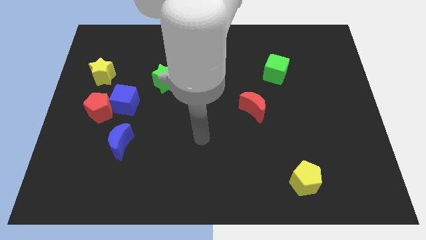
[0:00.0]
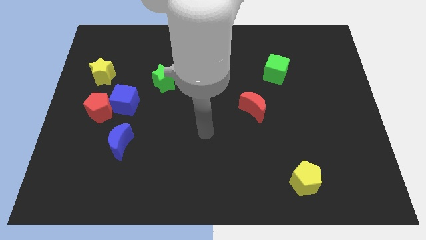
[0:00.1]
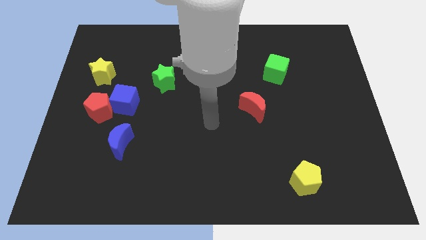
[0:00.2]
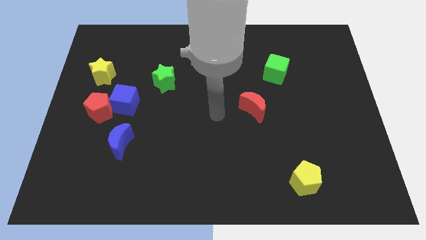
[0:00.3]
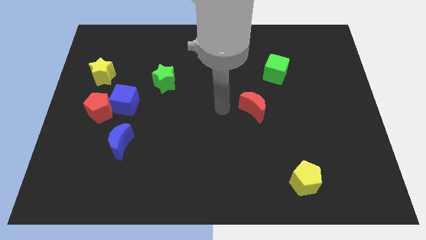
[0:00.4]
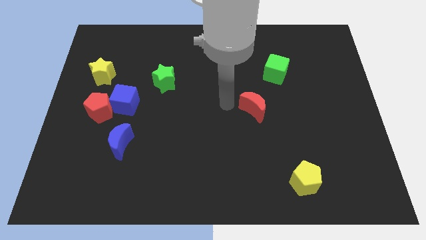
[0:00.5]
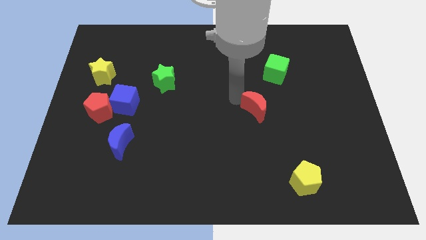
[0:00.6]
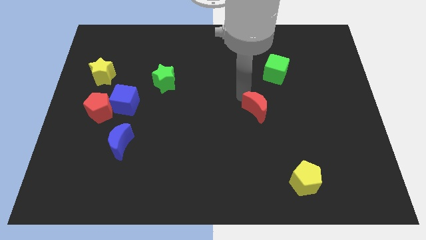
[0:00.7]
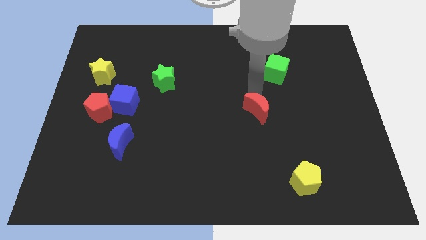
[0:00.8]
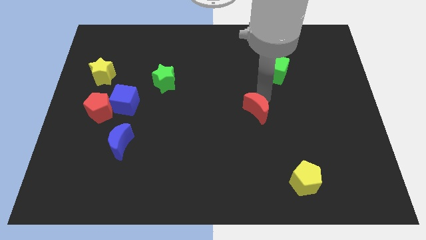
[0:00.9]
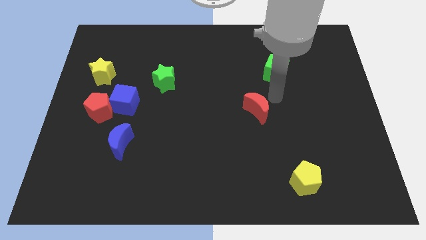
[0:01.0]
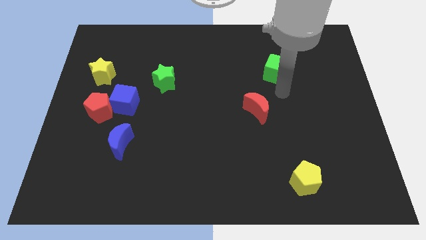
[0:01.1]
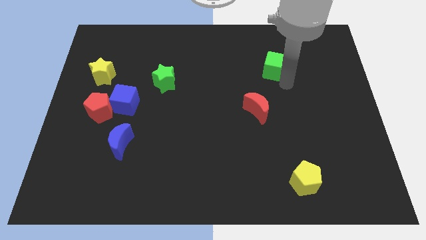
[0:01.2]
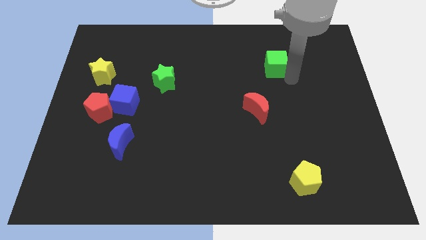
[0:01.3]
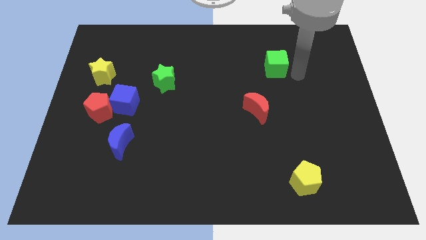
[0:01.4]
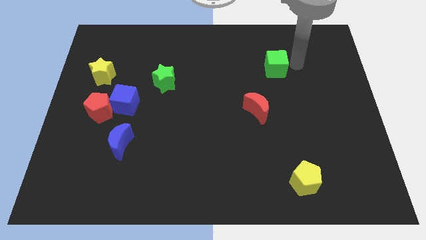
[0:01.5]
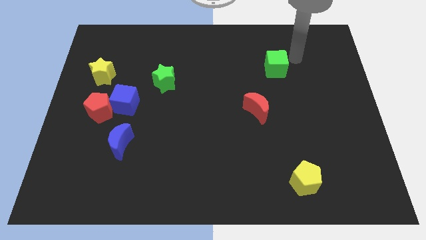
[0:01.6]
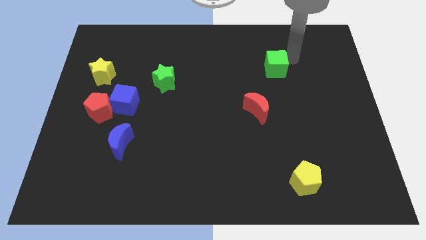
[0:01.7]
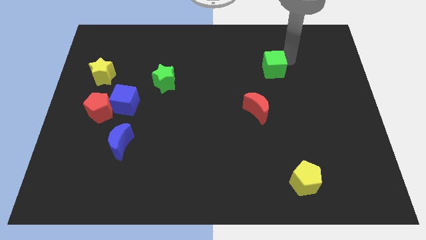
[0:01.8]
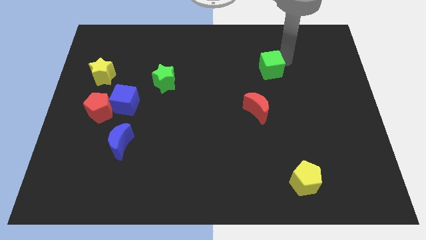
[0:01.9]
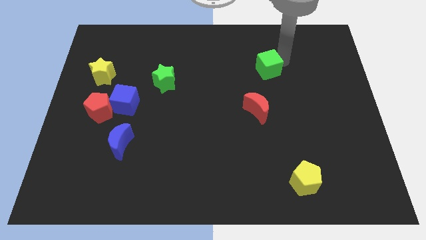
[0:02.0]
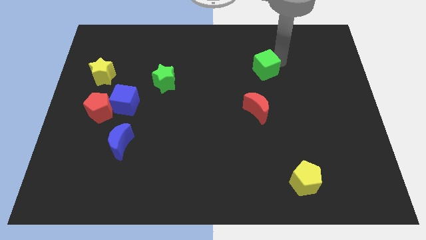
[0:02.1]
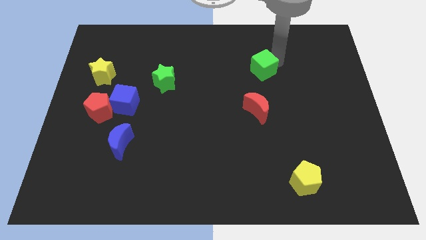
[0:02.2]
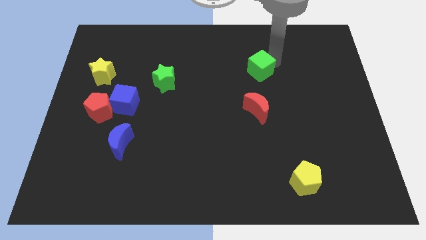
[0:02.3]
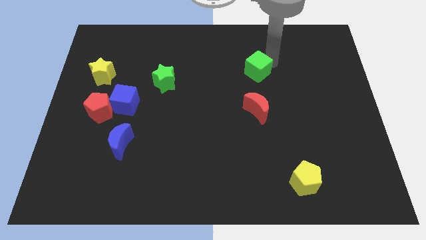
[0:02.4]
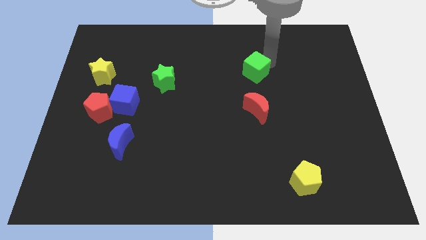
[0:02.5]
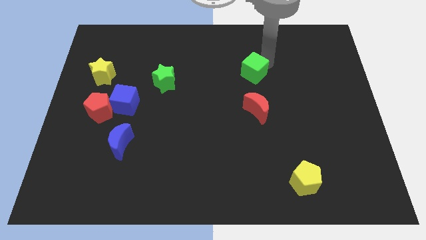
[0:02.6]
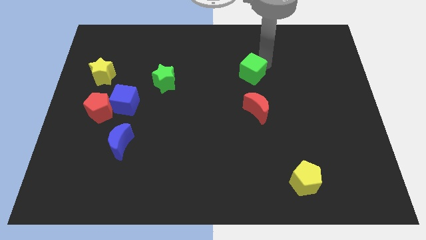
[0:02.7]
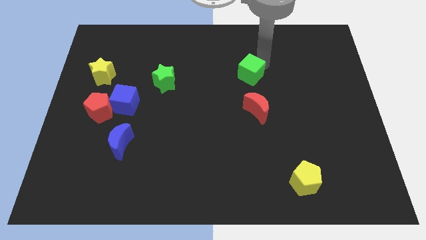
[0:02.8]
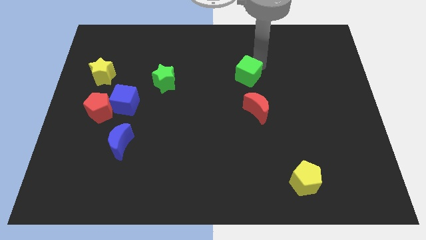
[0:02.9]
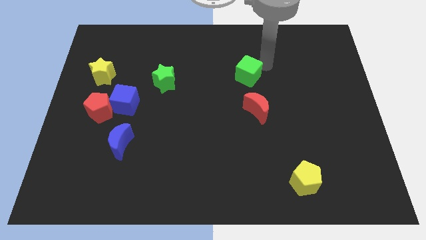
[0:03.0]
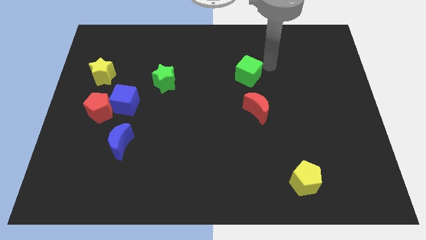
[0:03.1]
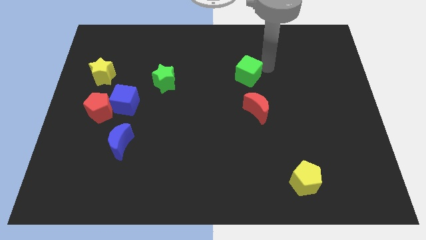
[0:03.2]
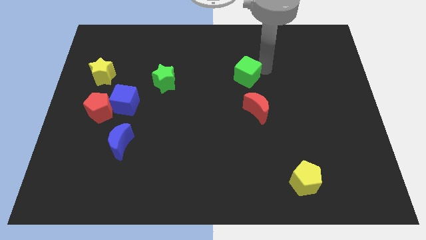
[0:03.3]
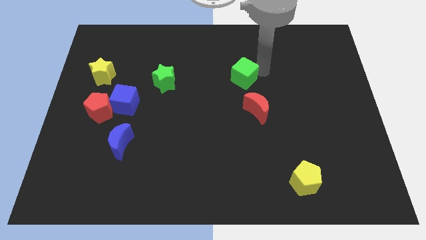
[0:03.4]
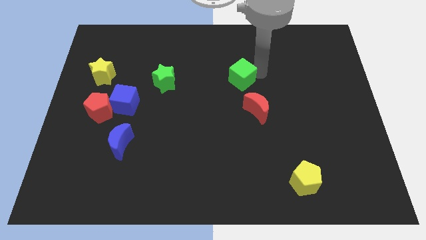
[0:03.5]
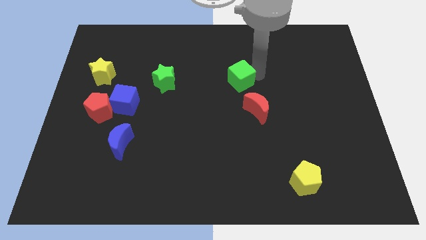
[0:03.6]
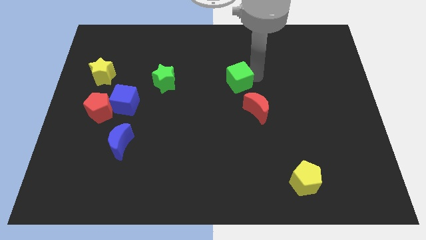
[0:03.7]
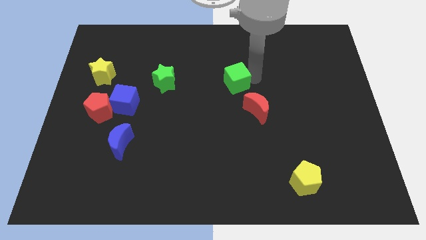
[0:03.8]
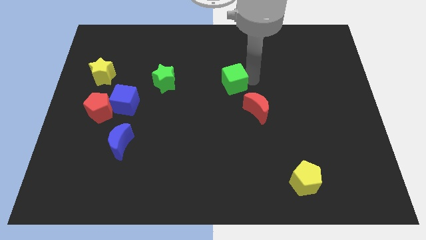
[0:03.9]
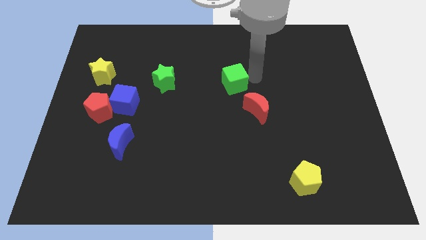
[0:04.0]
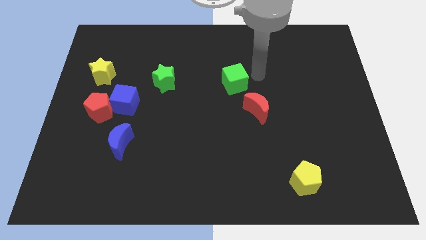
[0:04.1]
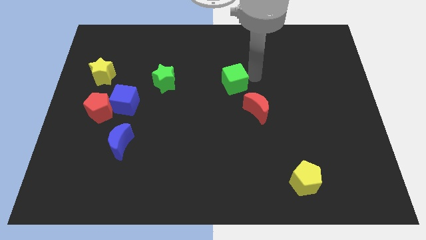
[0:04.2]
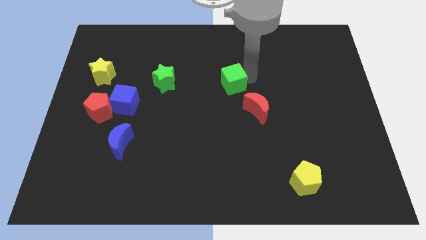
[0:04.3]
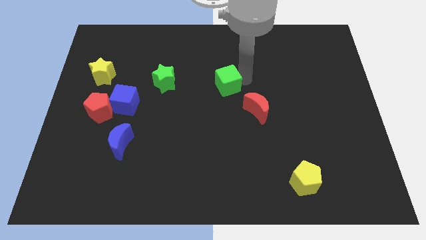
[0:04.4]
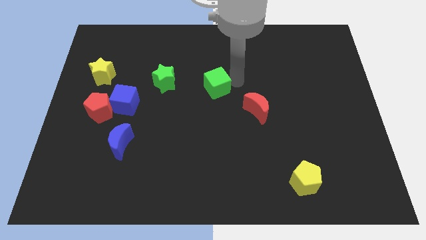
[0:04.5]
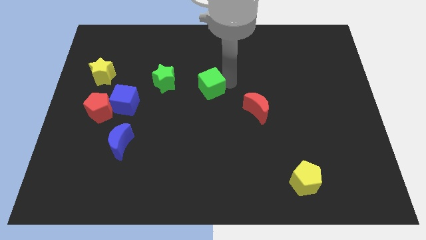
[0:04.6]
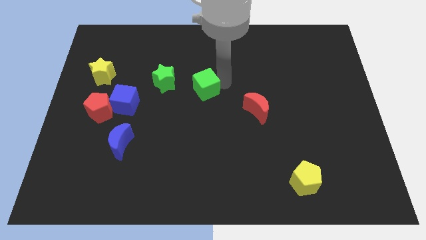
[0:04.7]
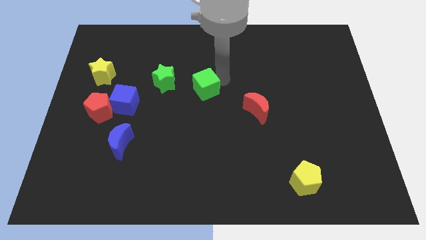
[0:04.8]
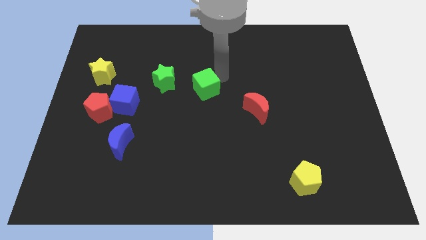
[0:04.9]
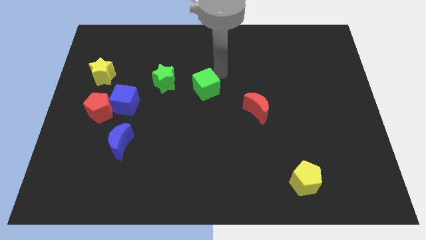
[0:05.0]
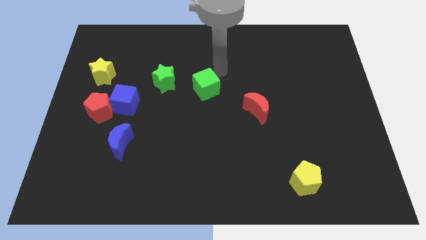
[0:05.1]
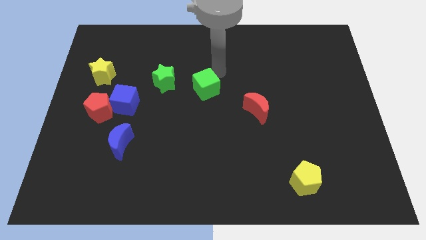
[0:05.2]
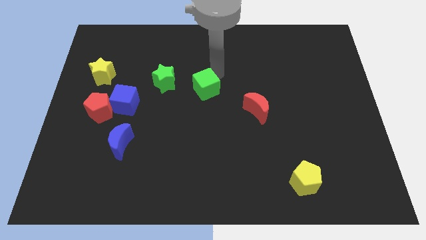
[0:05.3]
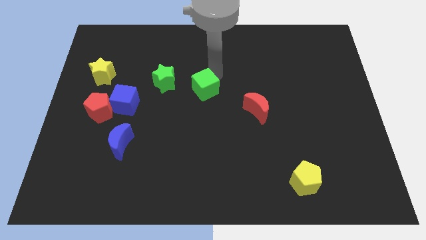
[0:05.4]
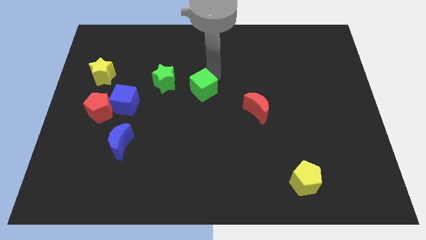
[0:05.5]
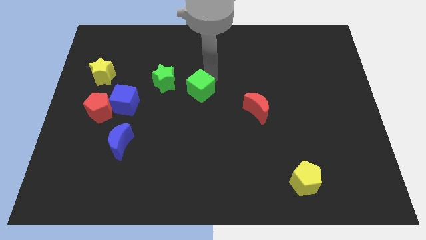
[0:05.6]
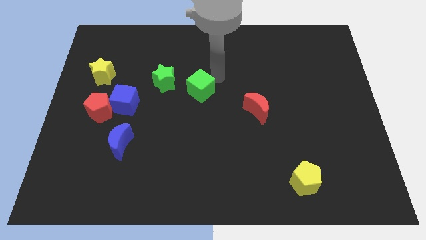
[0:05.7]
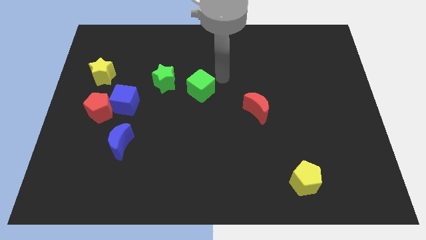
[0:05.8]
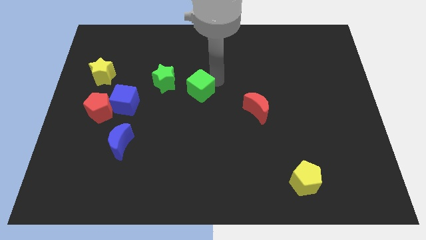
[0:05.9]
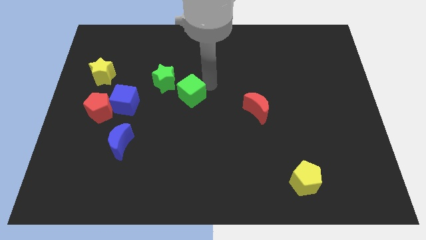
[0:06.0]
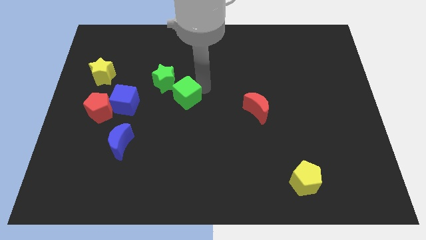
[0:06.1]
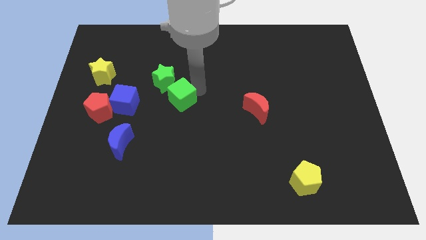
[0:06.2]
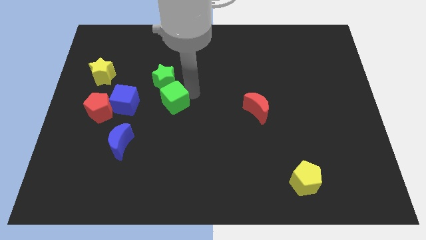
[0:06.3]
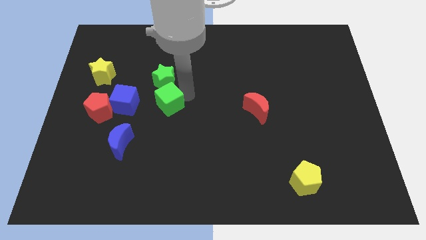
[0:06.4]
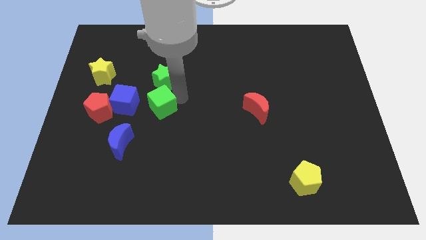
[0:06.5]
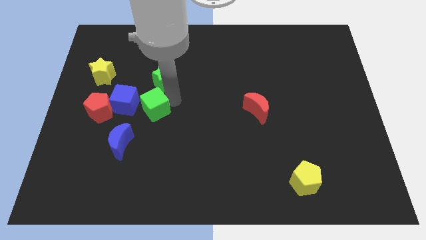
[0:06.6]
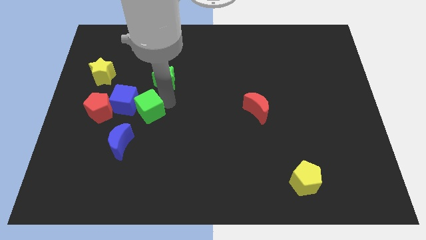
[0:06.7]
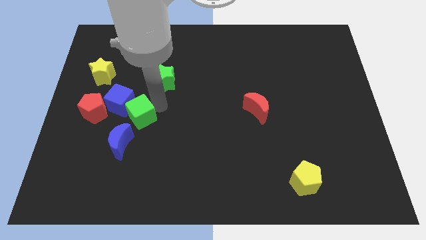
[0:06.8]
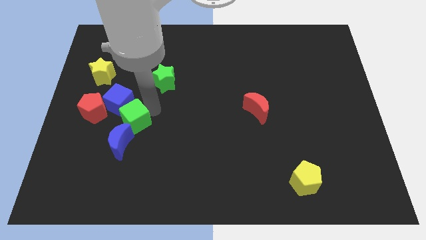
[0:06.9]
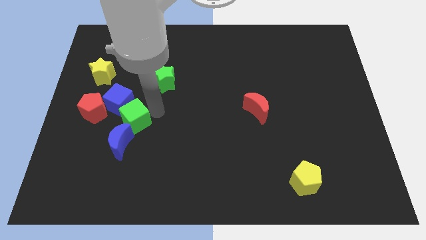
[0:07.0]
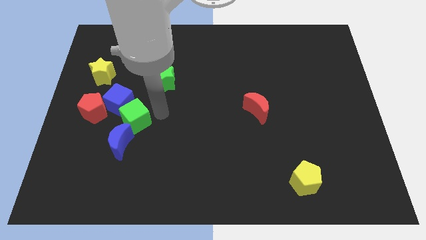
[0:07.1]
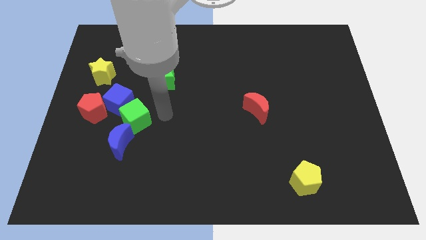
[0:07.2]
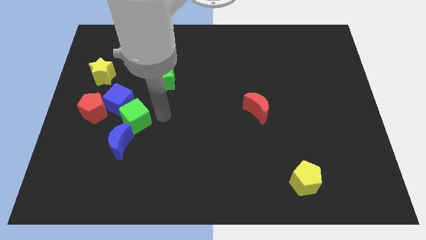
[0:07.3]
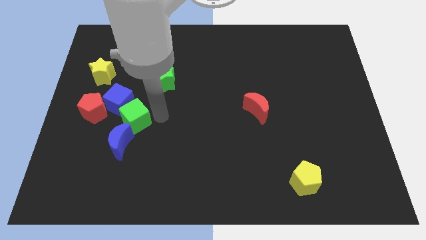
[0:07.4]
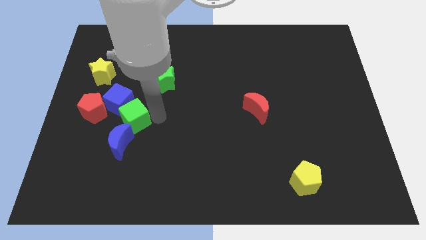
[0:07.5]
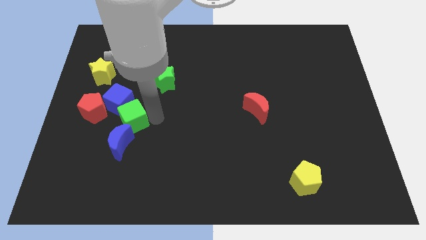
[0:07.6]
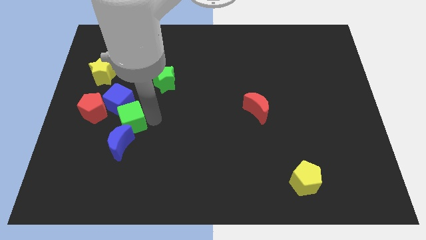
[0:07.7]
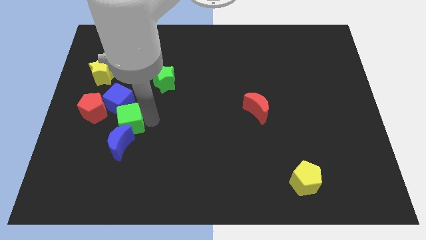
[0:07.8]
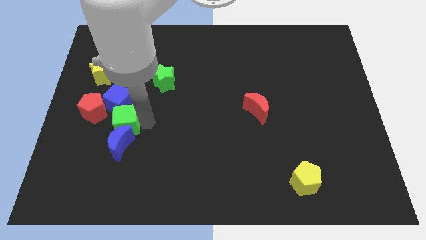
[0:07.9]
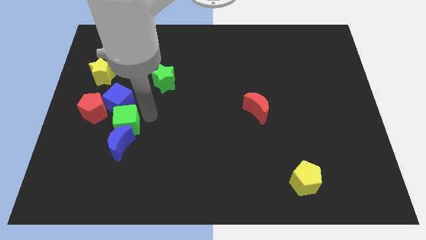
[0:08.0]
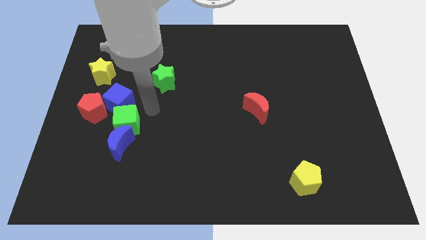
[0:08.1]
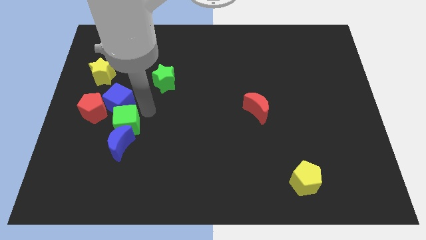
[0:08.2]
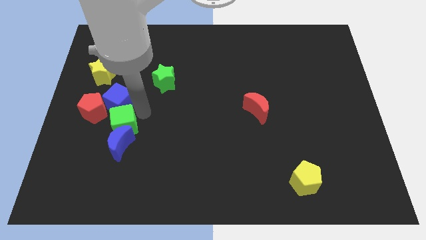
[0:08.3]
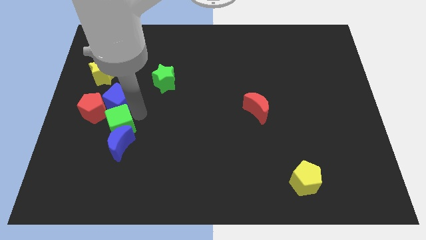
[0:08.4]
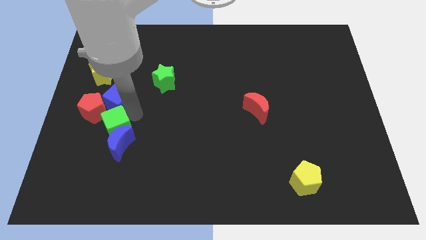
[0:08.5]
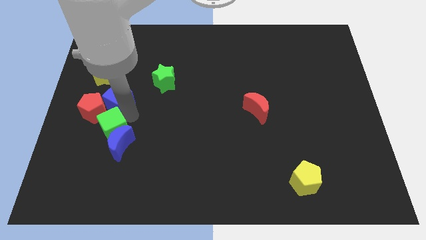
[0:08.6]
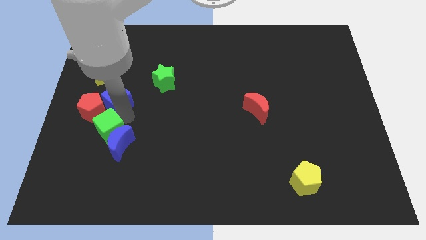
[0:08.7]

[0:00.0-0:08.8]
push the green cube to the bottom of the red pentagon
